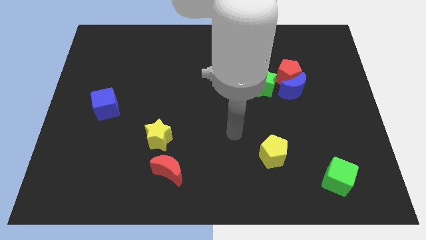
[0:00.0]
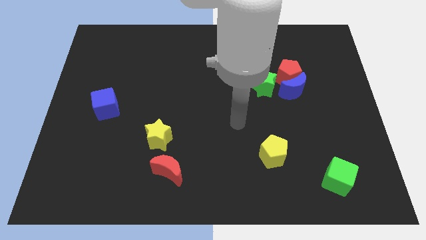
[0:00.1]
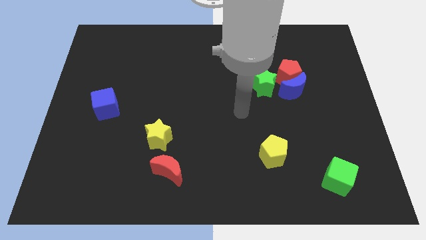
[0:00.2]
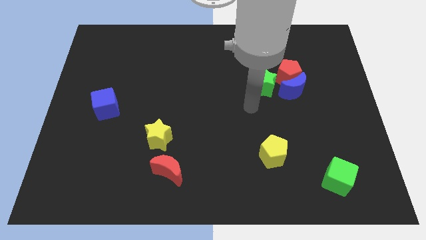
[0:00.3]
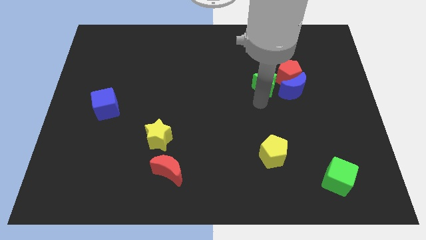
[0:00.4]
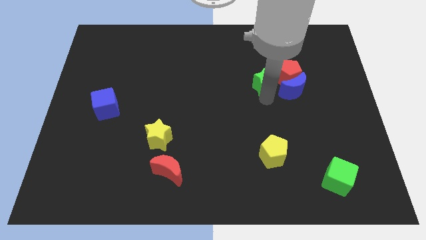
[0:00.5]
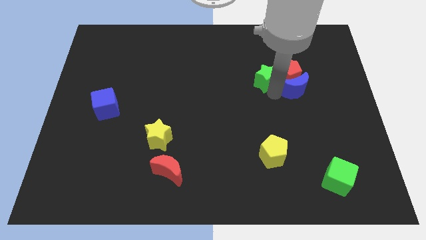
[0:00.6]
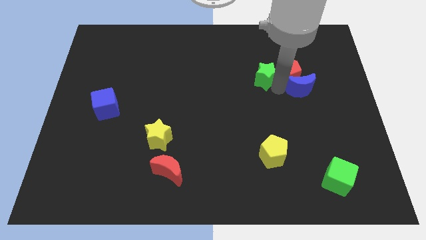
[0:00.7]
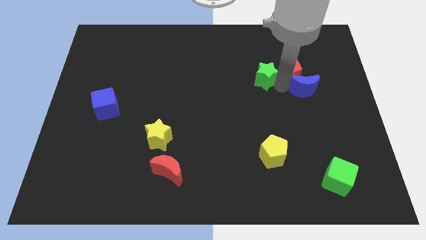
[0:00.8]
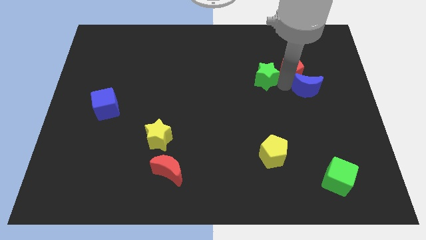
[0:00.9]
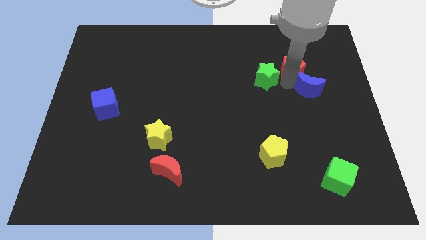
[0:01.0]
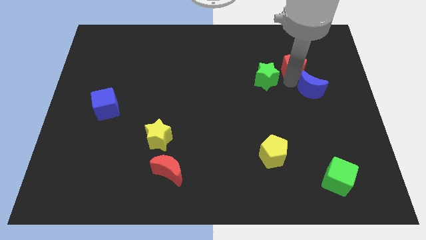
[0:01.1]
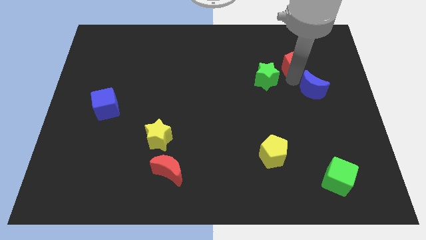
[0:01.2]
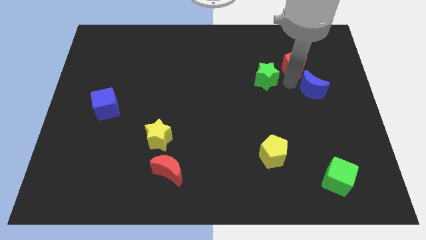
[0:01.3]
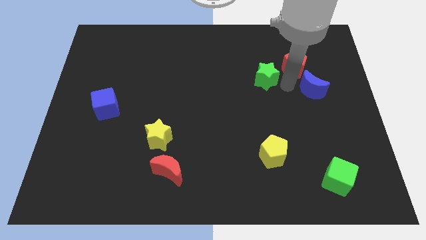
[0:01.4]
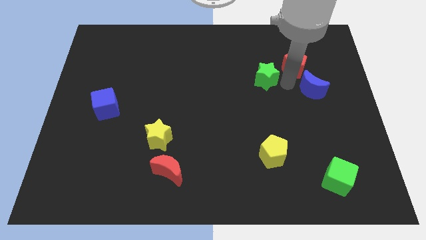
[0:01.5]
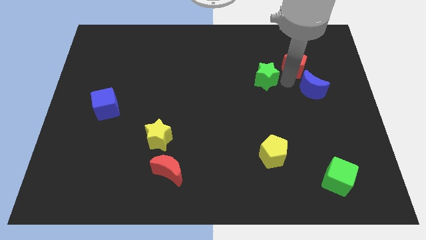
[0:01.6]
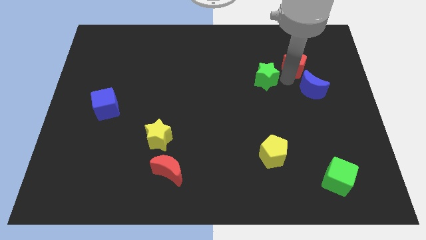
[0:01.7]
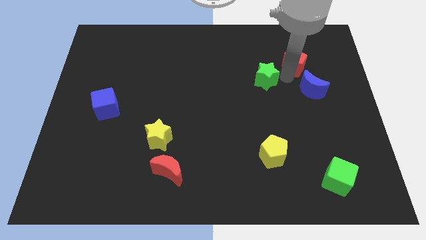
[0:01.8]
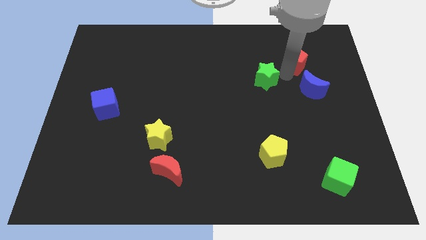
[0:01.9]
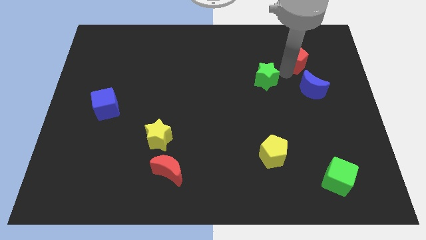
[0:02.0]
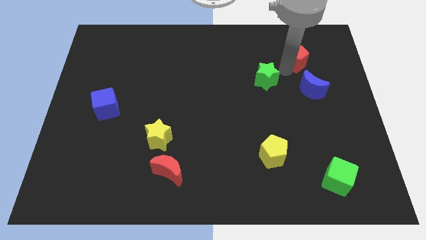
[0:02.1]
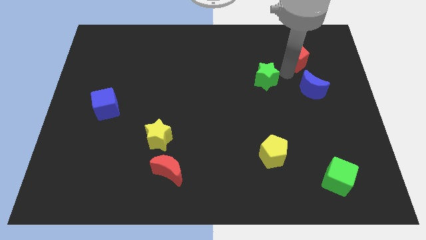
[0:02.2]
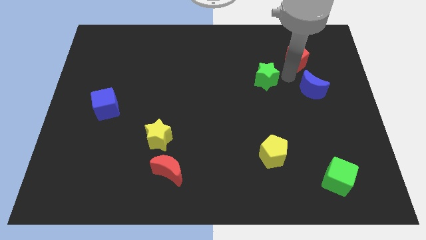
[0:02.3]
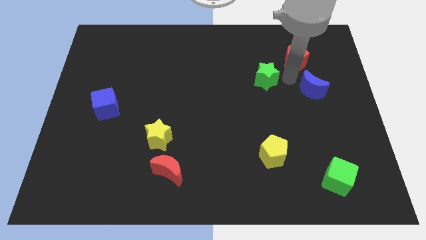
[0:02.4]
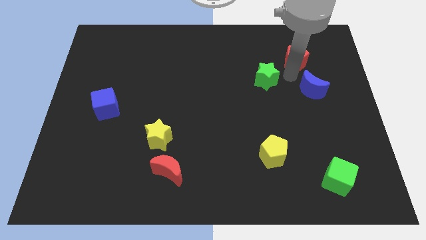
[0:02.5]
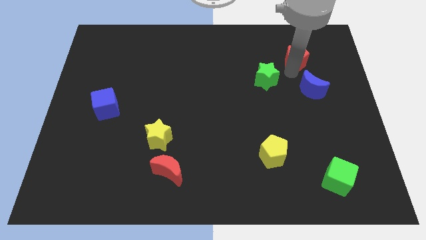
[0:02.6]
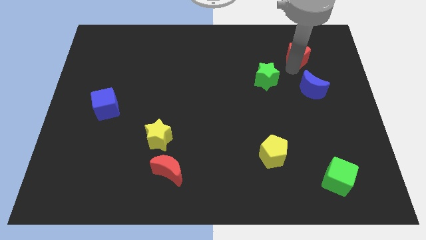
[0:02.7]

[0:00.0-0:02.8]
separate the red pentagon from the blue moon and green star

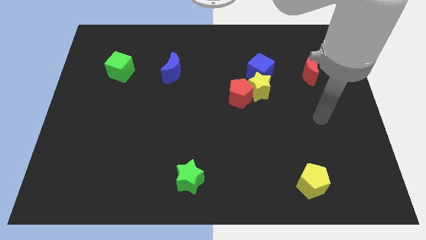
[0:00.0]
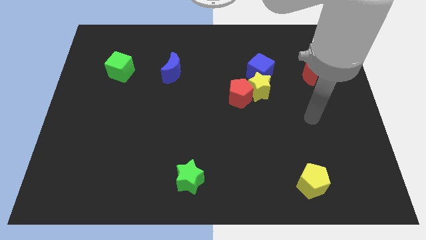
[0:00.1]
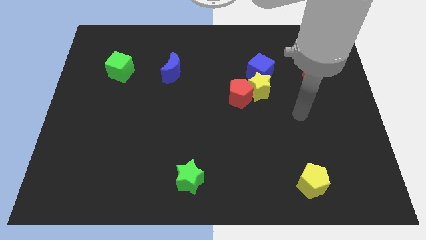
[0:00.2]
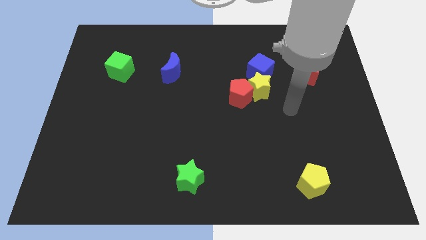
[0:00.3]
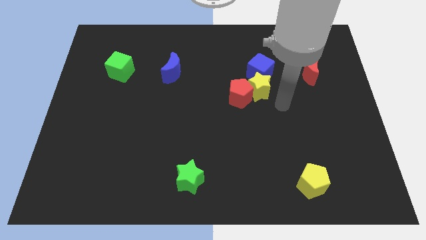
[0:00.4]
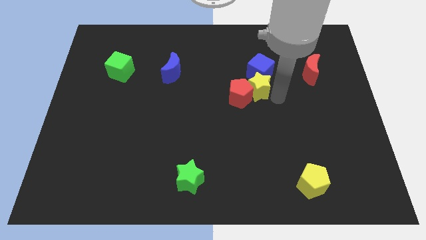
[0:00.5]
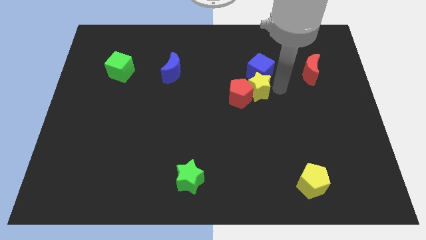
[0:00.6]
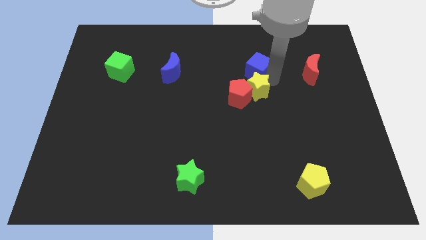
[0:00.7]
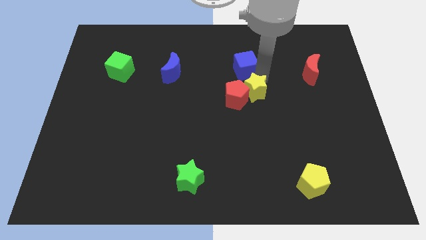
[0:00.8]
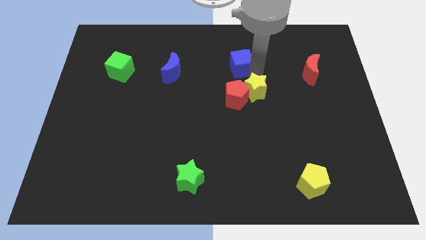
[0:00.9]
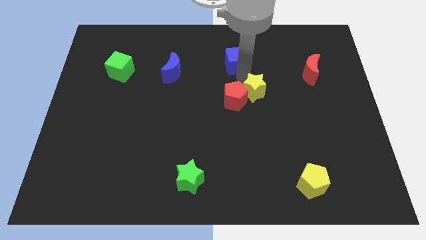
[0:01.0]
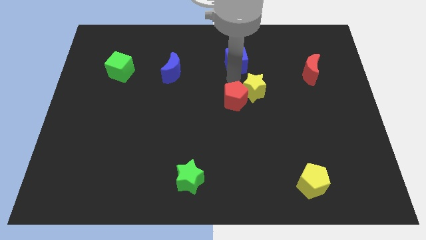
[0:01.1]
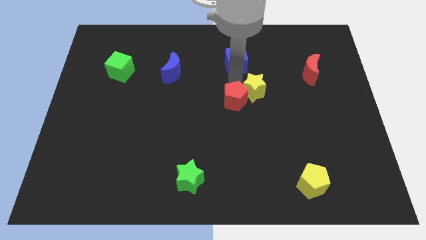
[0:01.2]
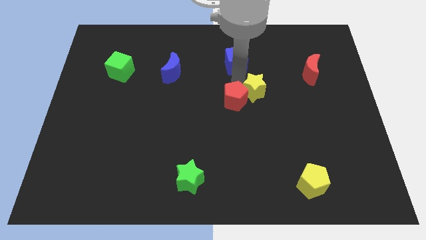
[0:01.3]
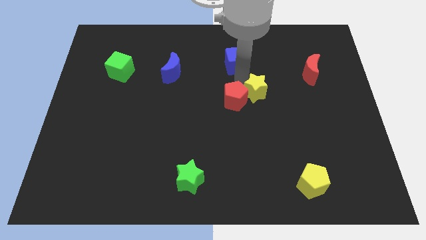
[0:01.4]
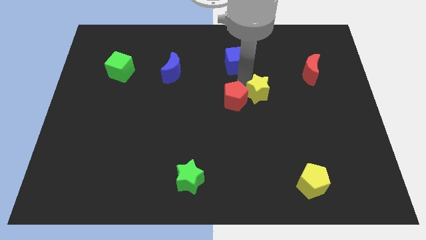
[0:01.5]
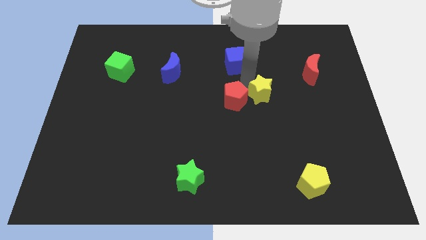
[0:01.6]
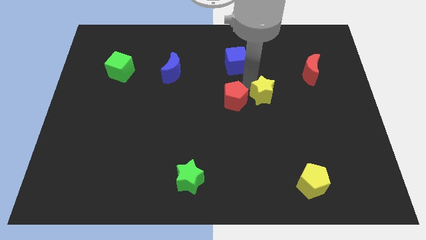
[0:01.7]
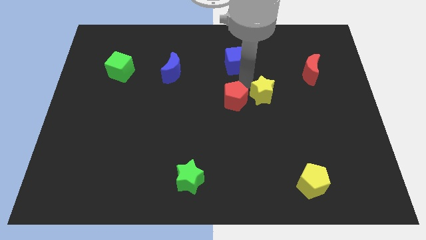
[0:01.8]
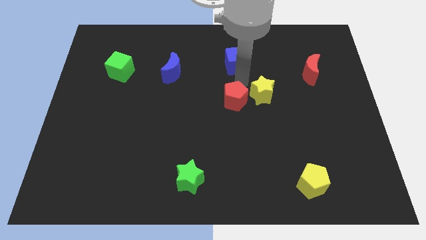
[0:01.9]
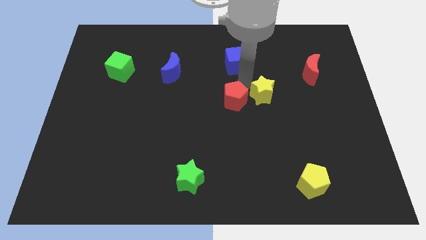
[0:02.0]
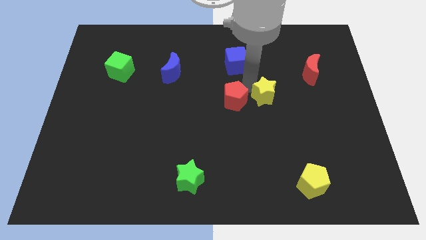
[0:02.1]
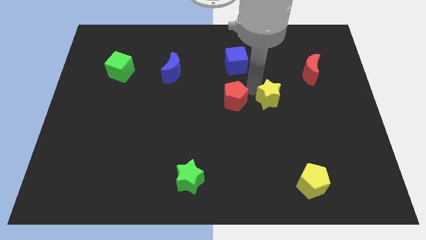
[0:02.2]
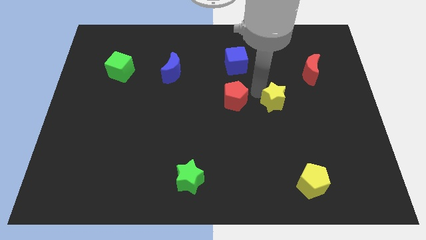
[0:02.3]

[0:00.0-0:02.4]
move the yellow star away from the red pentagon and blue cube

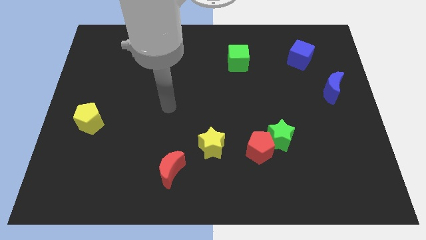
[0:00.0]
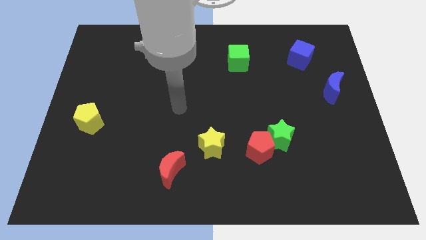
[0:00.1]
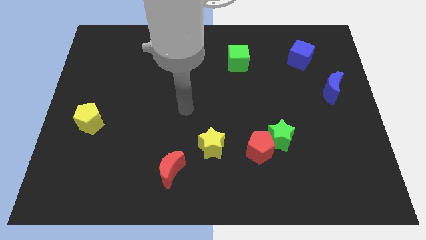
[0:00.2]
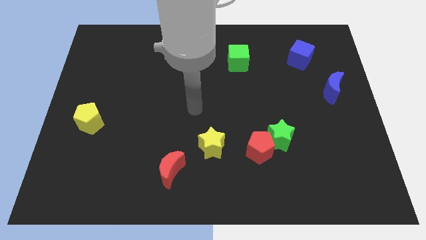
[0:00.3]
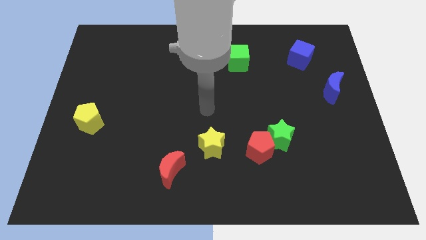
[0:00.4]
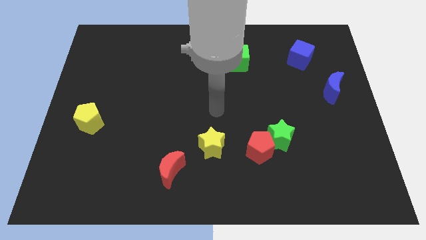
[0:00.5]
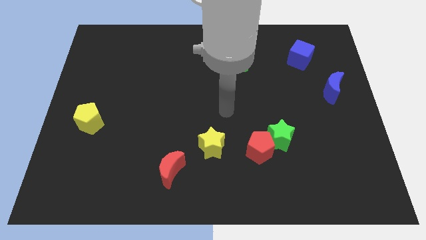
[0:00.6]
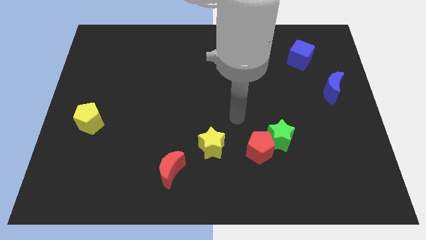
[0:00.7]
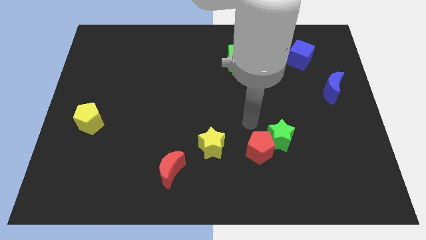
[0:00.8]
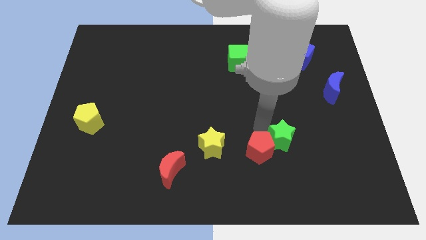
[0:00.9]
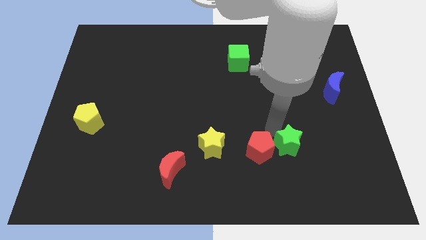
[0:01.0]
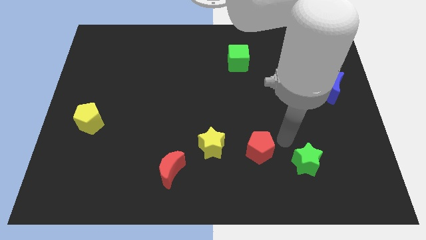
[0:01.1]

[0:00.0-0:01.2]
separate the red pentagon from the green star

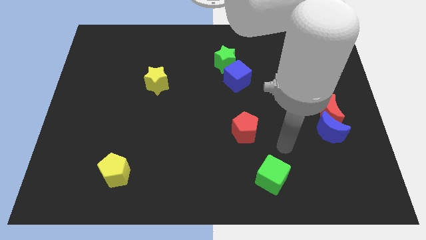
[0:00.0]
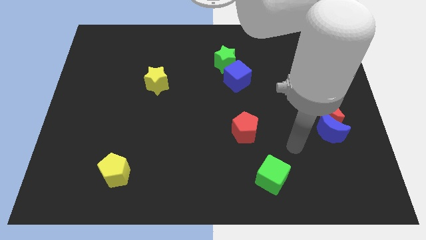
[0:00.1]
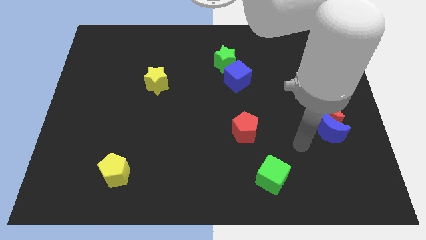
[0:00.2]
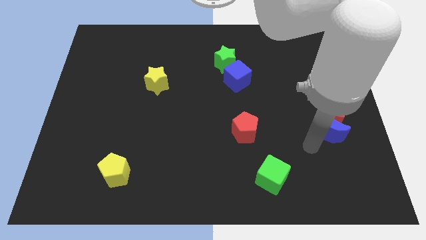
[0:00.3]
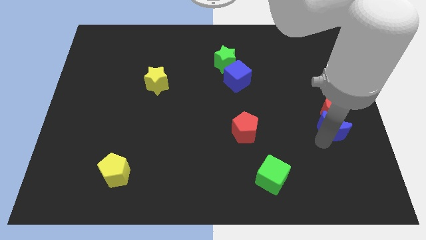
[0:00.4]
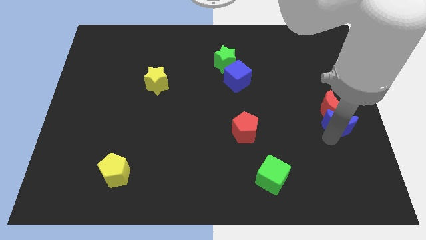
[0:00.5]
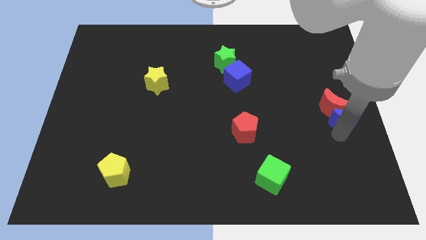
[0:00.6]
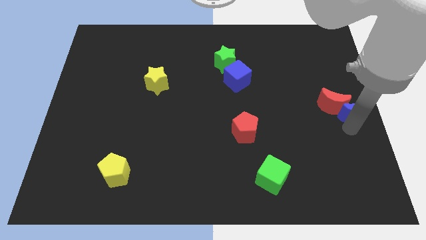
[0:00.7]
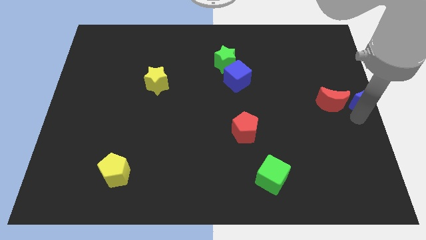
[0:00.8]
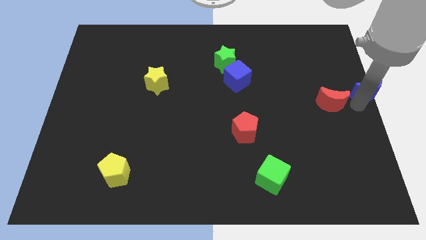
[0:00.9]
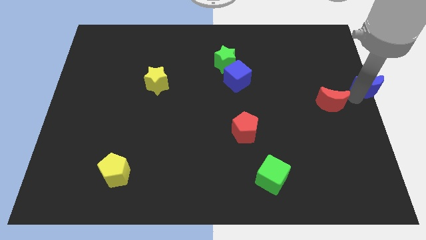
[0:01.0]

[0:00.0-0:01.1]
move the red moon away from the blue moon

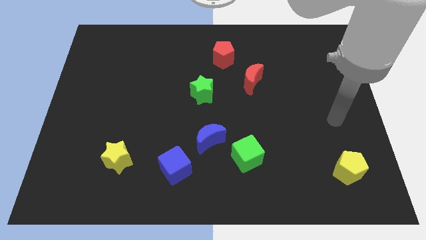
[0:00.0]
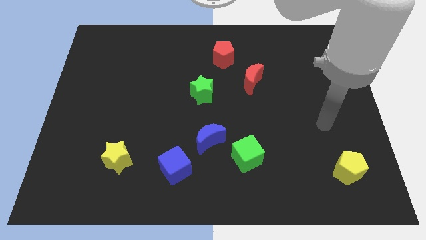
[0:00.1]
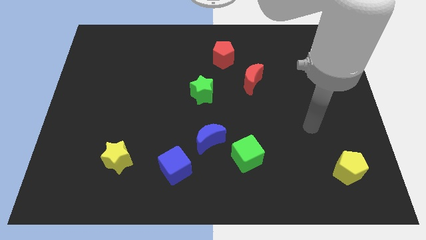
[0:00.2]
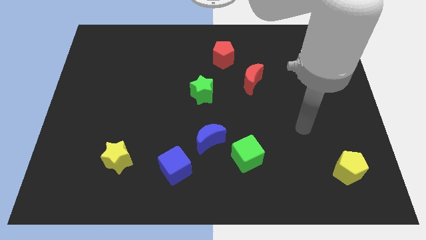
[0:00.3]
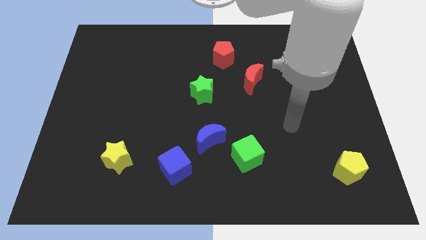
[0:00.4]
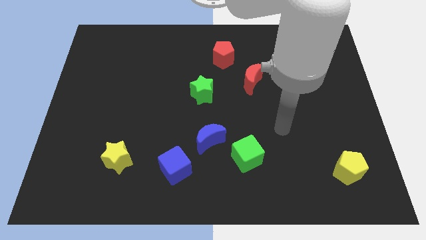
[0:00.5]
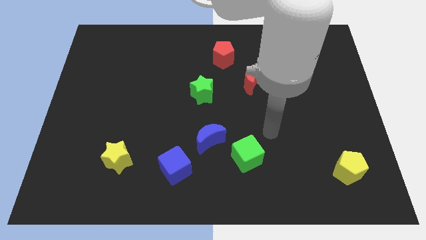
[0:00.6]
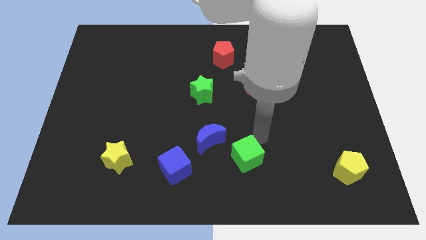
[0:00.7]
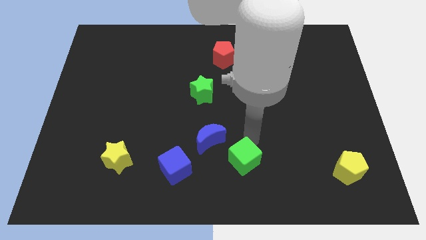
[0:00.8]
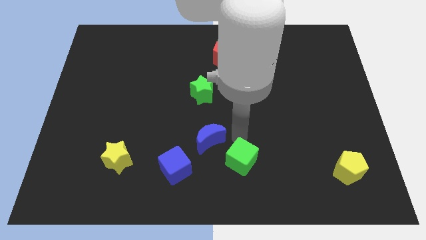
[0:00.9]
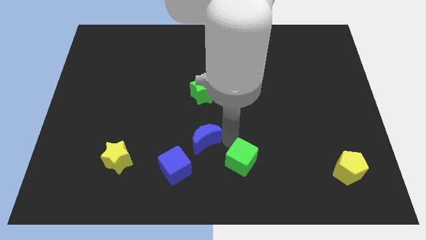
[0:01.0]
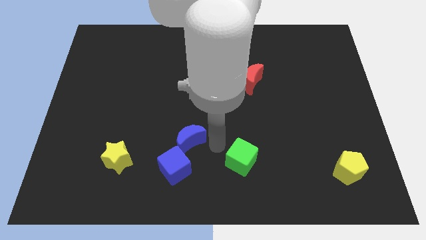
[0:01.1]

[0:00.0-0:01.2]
pull the green cube apart from the blue moon

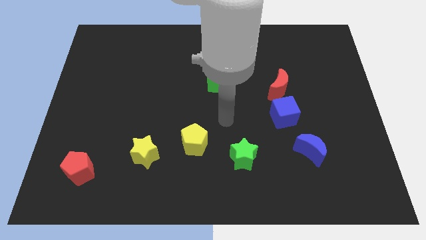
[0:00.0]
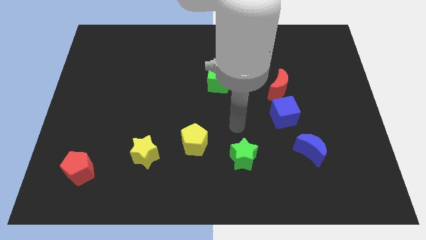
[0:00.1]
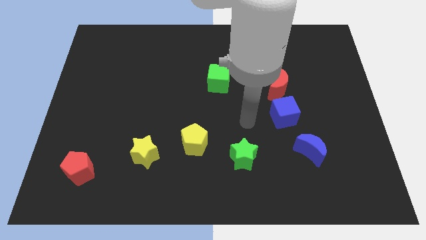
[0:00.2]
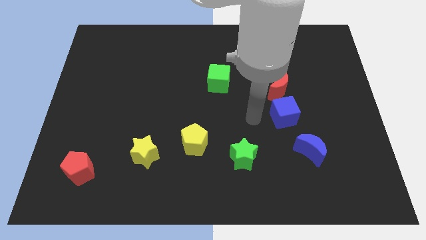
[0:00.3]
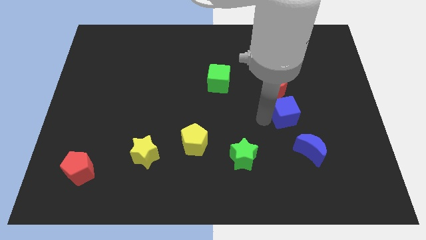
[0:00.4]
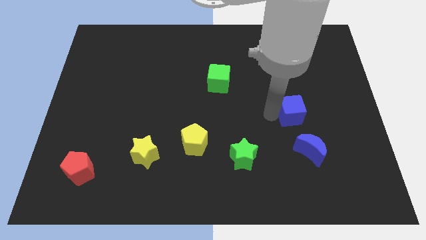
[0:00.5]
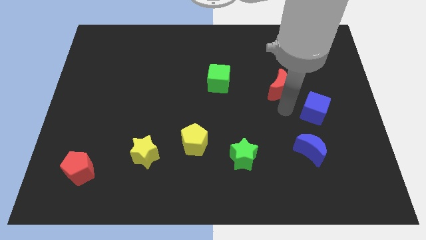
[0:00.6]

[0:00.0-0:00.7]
pull the red moon apart from the blue cube
